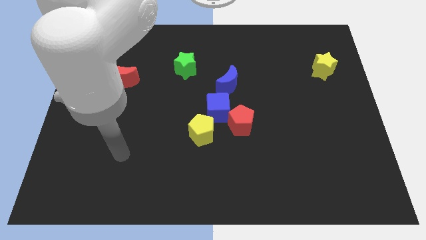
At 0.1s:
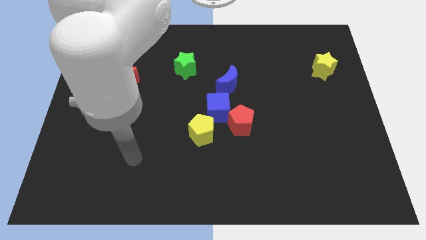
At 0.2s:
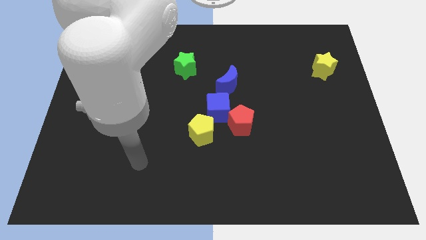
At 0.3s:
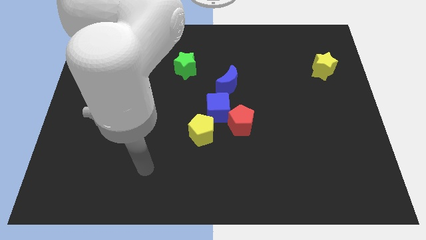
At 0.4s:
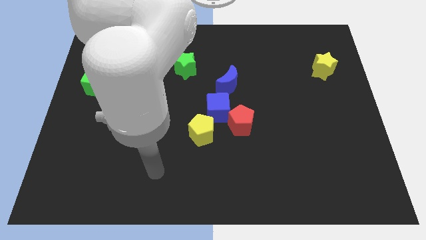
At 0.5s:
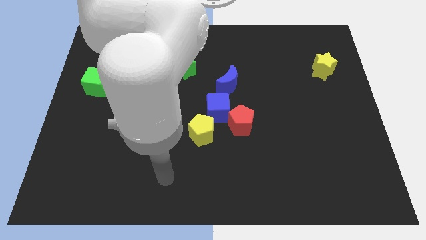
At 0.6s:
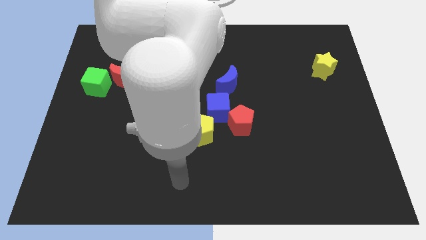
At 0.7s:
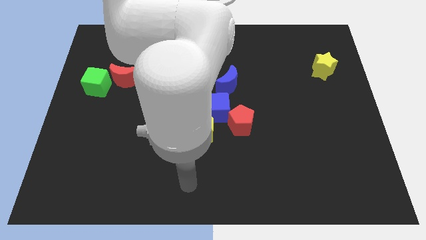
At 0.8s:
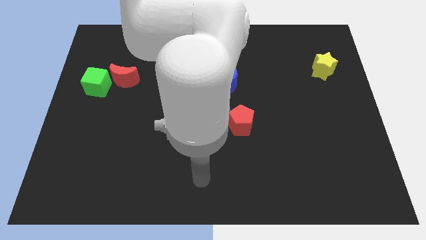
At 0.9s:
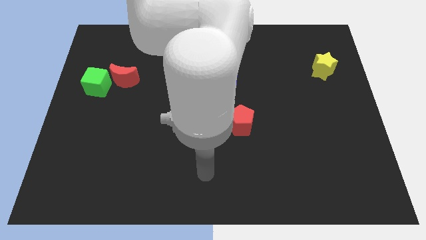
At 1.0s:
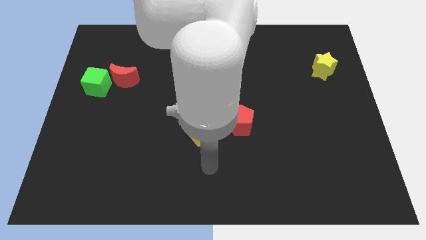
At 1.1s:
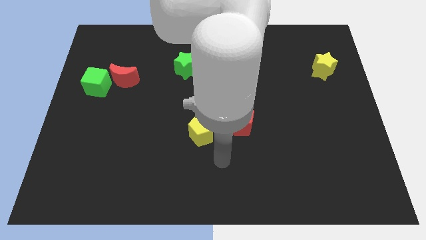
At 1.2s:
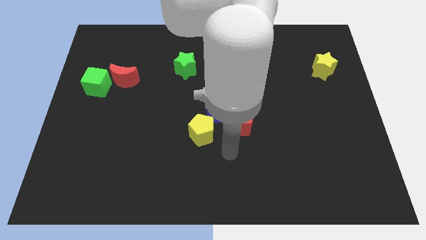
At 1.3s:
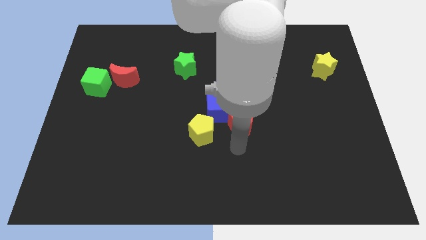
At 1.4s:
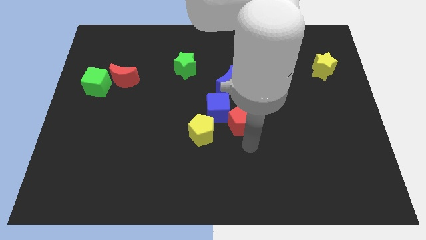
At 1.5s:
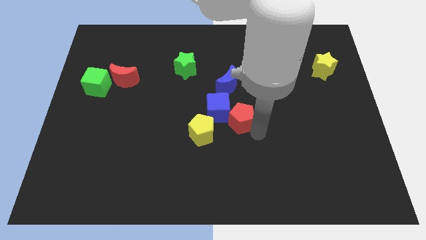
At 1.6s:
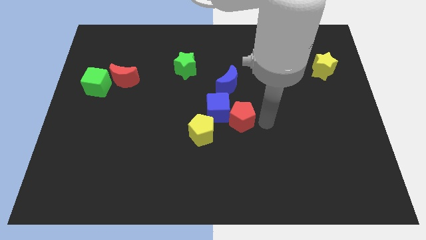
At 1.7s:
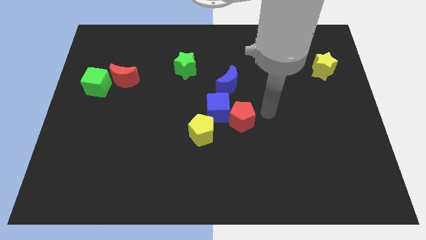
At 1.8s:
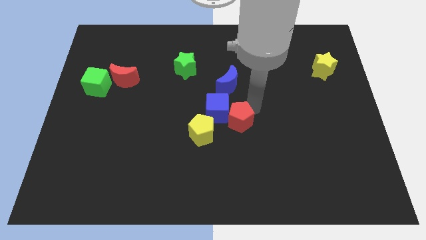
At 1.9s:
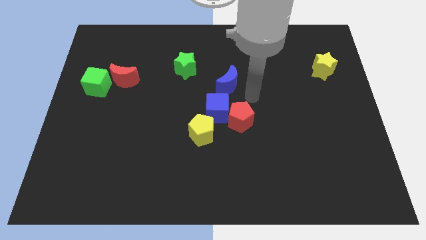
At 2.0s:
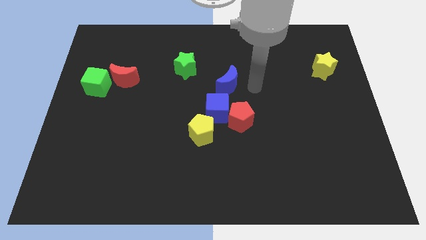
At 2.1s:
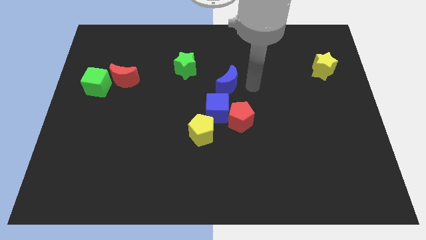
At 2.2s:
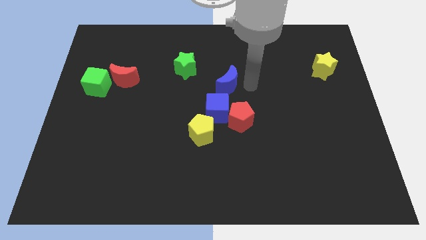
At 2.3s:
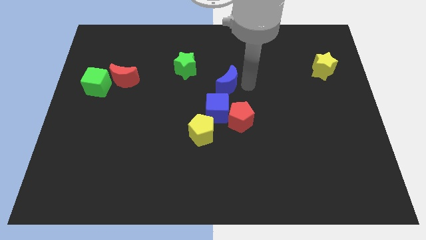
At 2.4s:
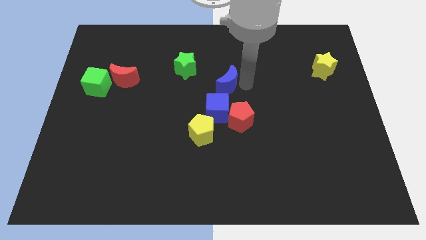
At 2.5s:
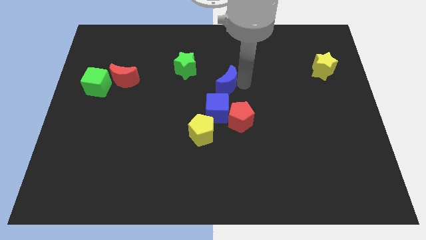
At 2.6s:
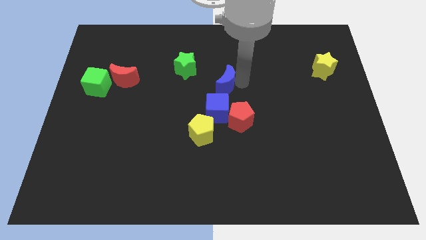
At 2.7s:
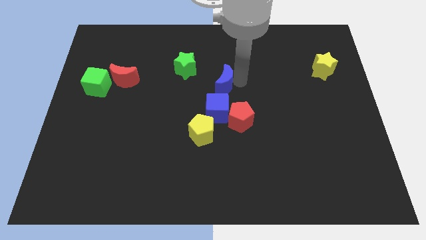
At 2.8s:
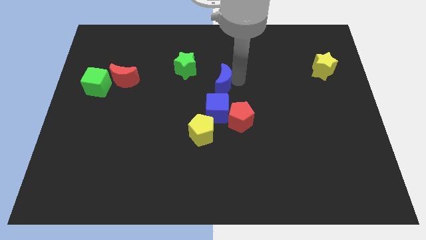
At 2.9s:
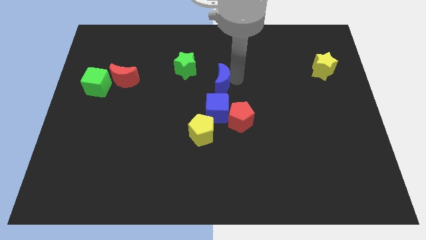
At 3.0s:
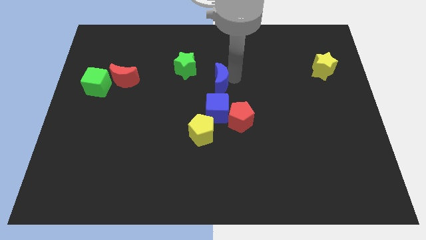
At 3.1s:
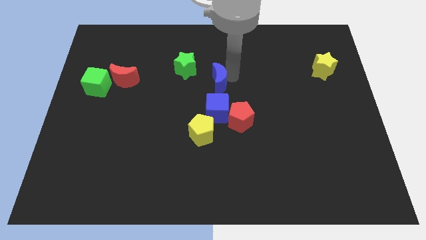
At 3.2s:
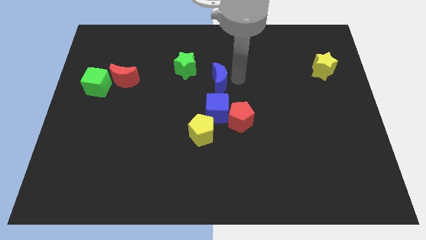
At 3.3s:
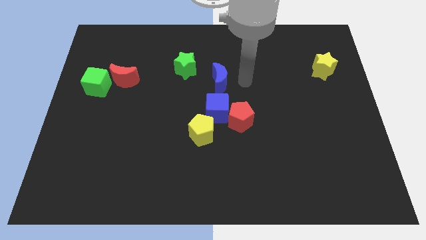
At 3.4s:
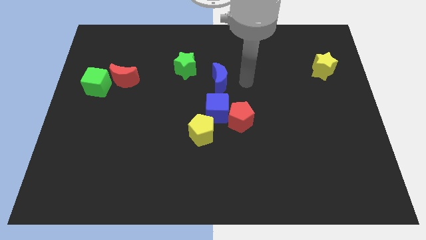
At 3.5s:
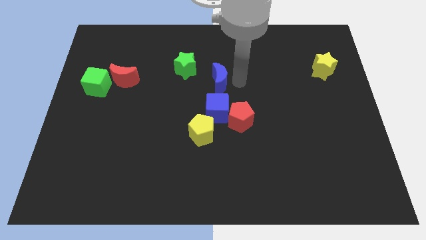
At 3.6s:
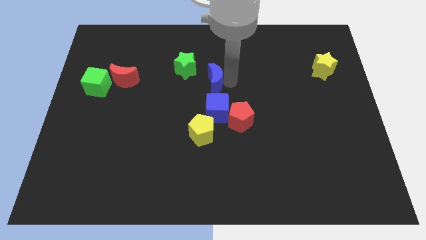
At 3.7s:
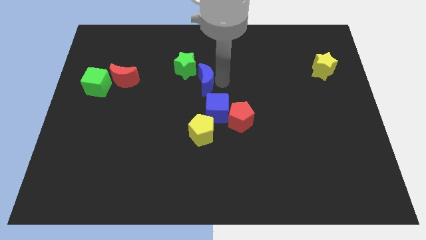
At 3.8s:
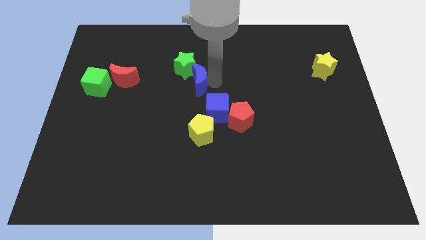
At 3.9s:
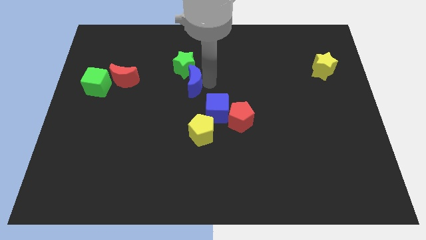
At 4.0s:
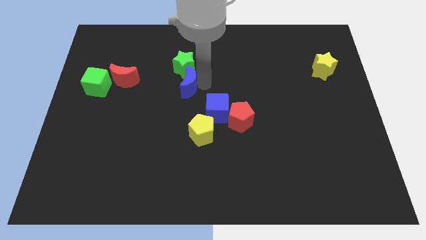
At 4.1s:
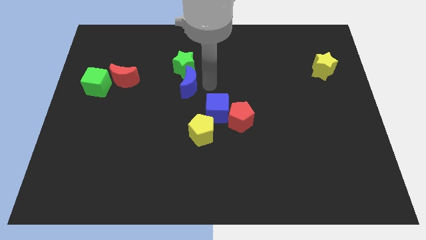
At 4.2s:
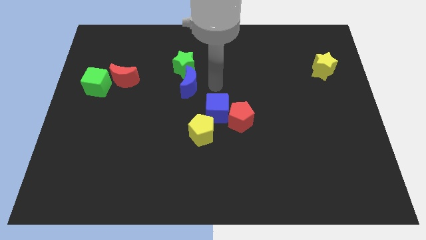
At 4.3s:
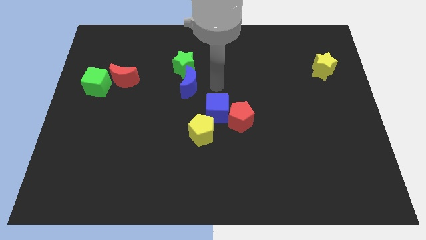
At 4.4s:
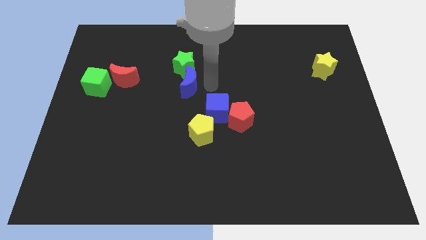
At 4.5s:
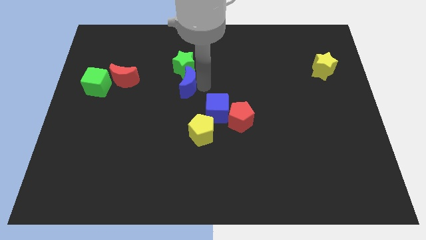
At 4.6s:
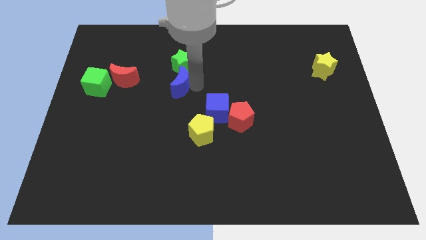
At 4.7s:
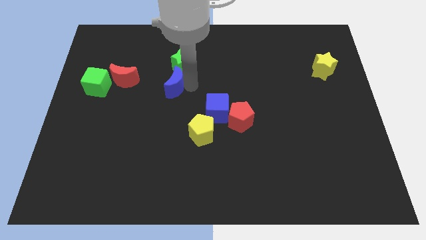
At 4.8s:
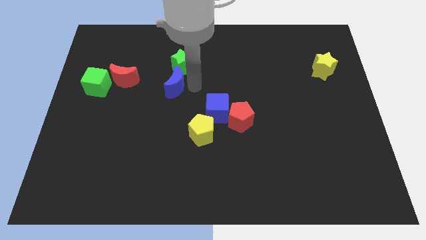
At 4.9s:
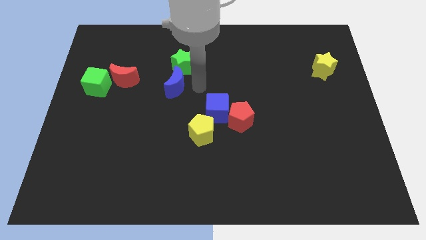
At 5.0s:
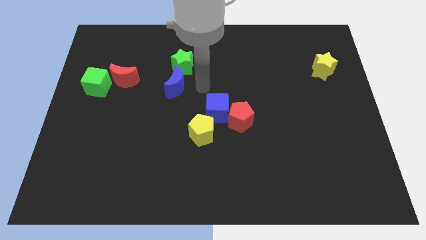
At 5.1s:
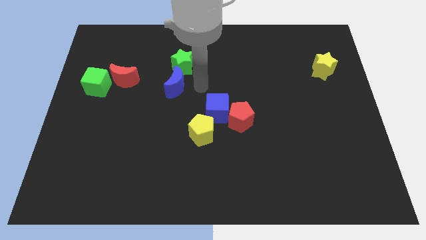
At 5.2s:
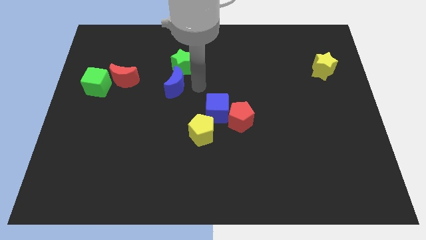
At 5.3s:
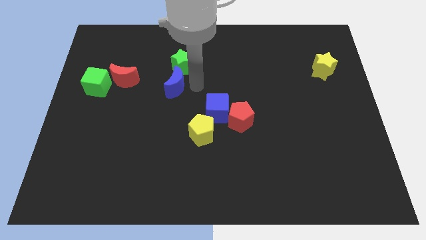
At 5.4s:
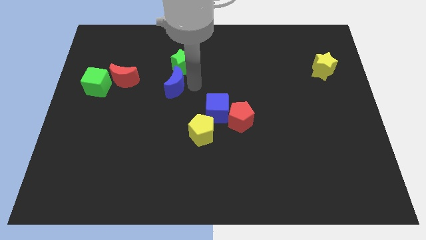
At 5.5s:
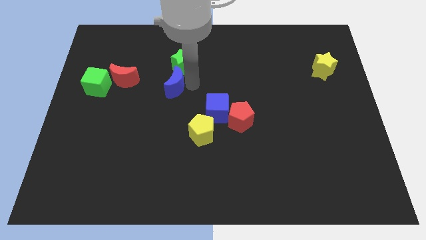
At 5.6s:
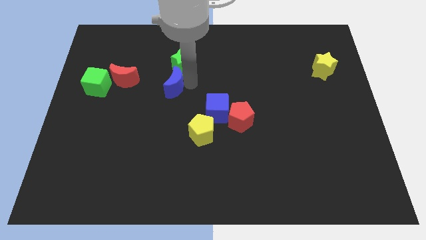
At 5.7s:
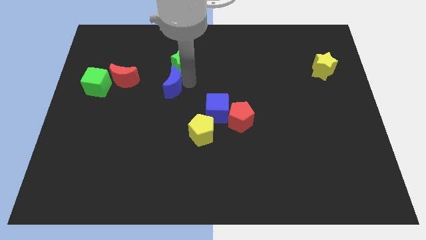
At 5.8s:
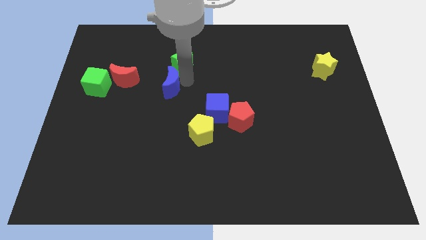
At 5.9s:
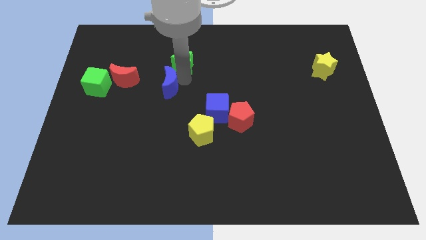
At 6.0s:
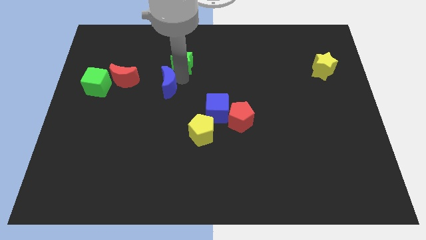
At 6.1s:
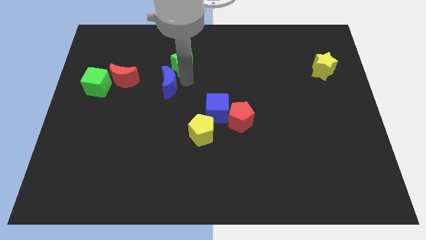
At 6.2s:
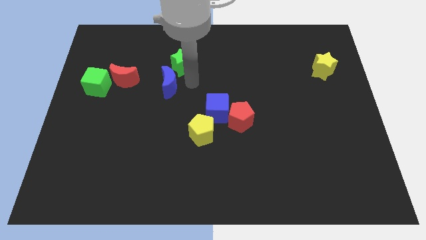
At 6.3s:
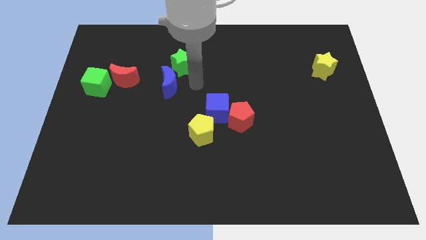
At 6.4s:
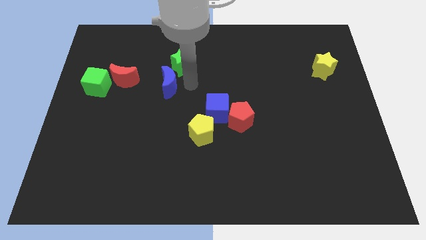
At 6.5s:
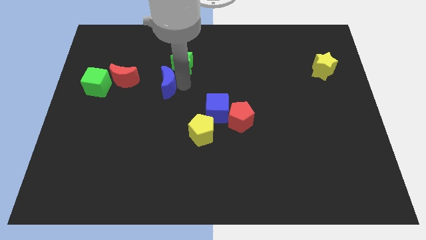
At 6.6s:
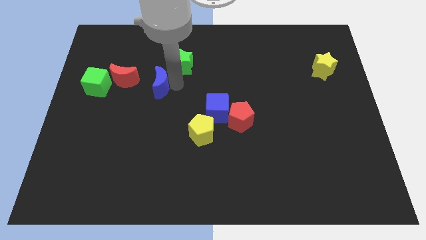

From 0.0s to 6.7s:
put the blue moon right of the green cube

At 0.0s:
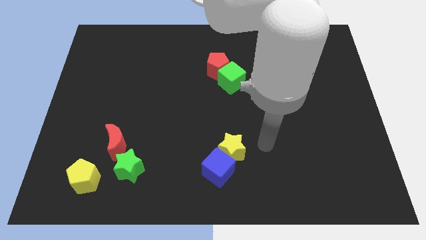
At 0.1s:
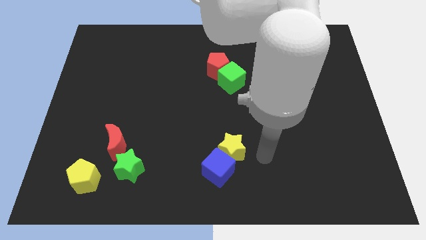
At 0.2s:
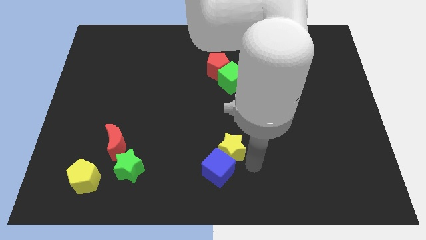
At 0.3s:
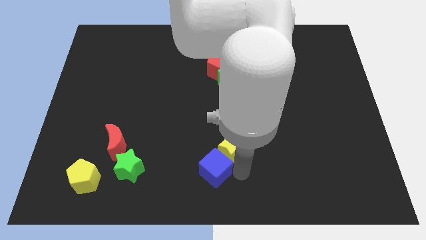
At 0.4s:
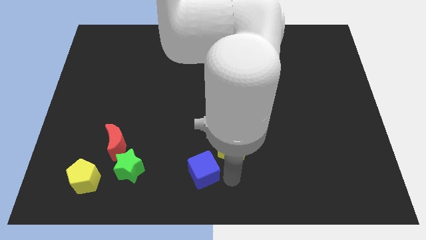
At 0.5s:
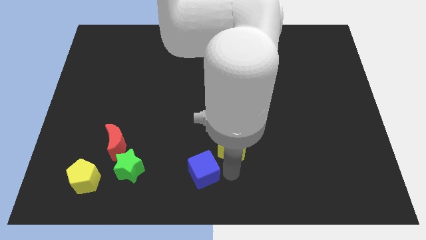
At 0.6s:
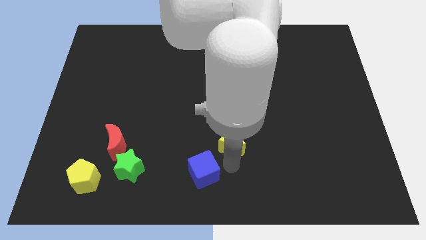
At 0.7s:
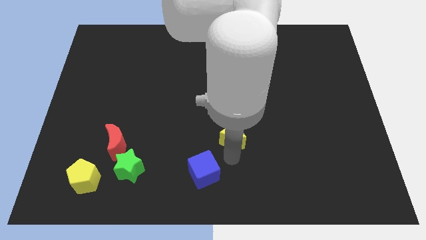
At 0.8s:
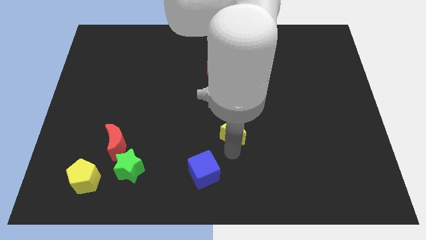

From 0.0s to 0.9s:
put the yellow star below the green cube
